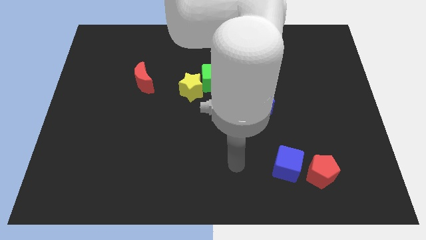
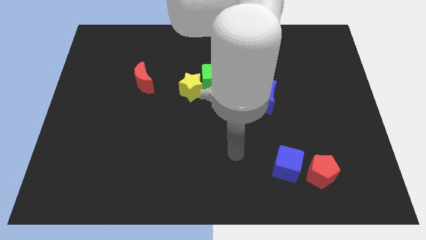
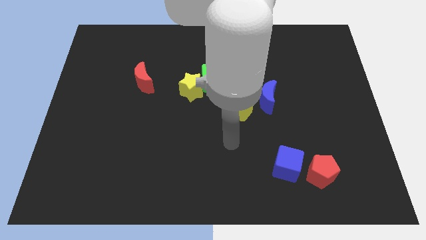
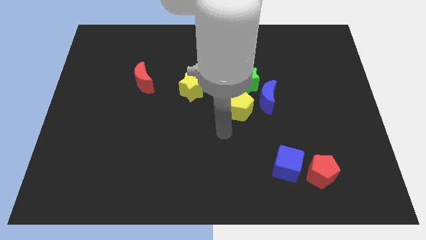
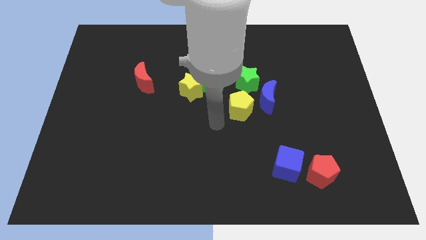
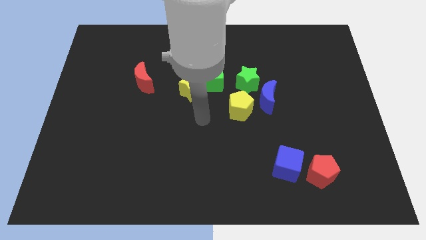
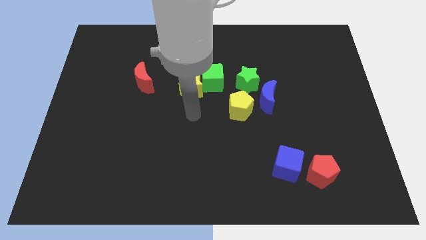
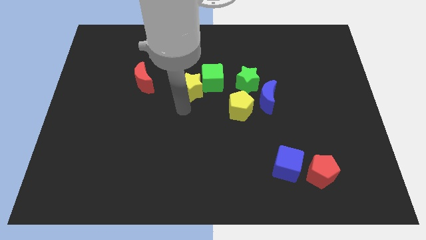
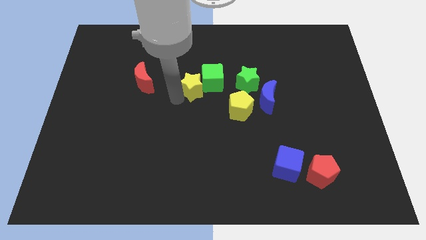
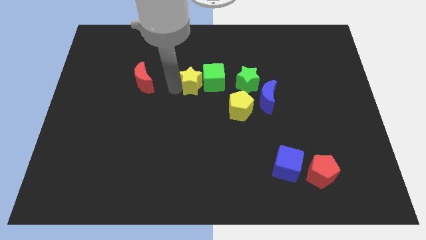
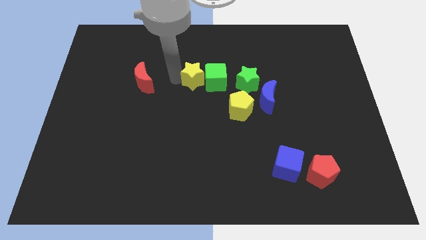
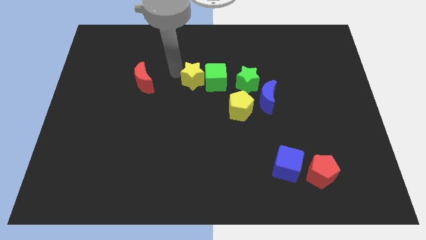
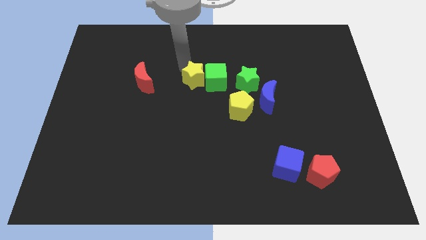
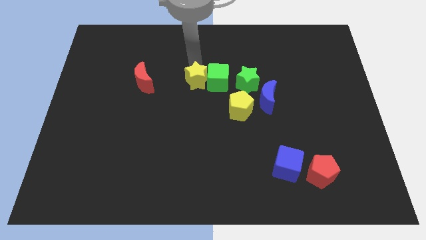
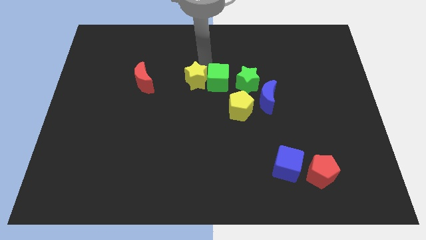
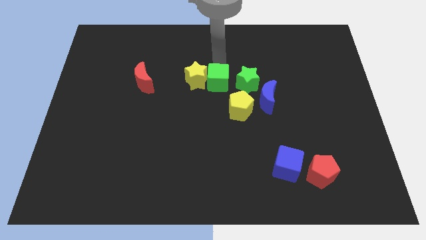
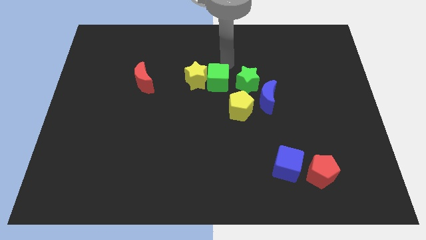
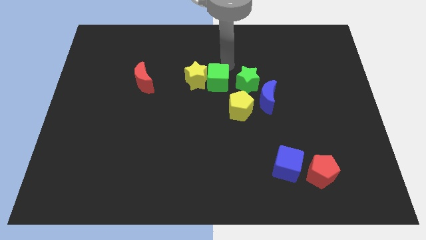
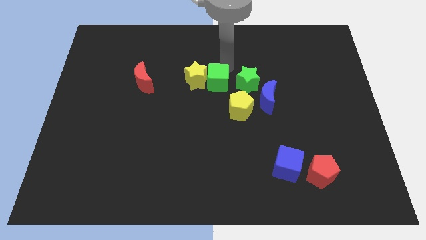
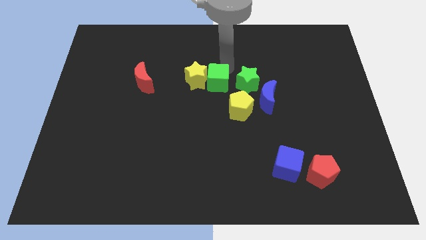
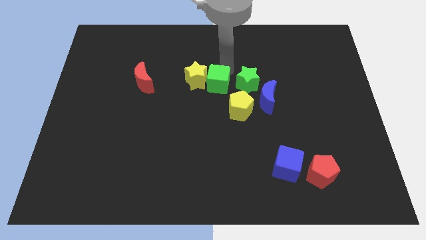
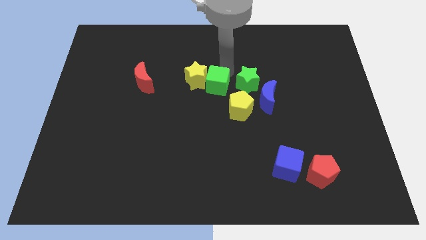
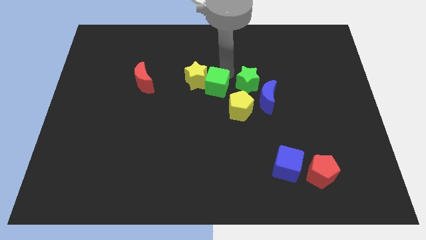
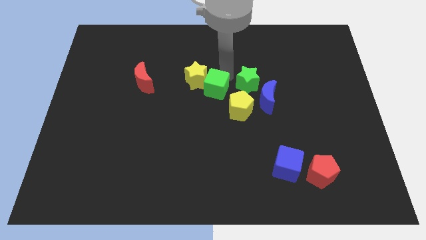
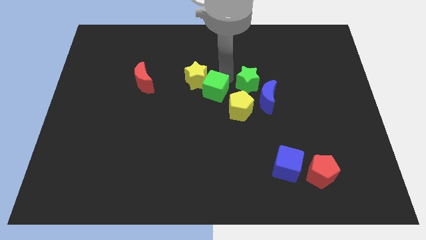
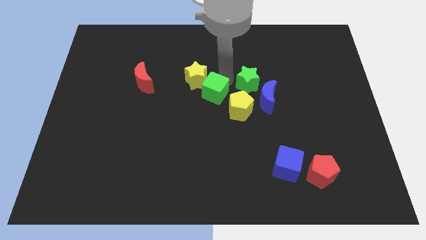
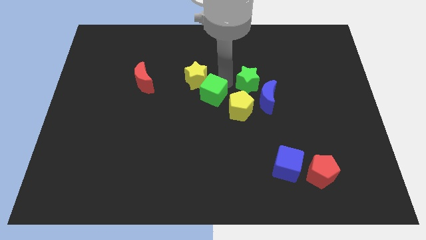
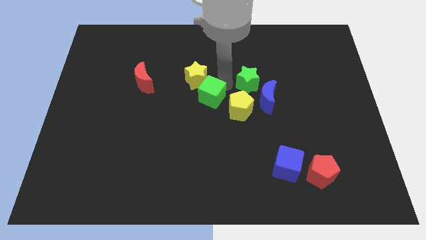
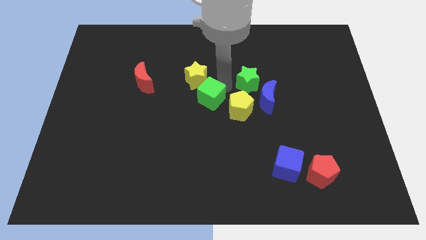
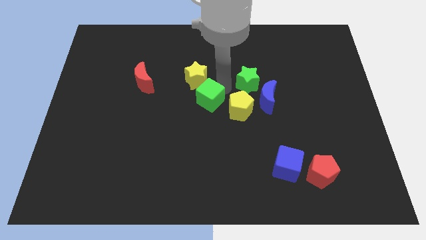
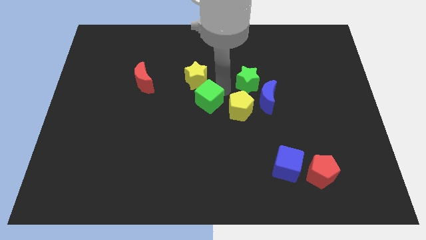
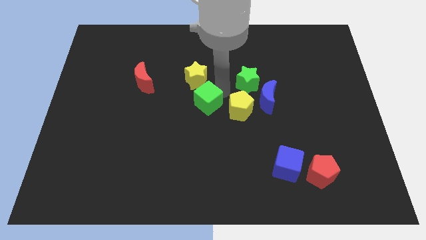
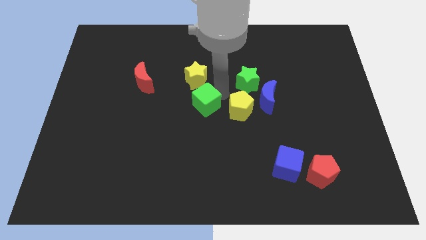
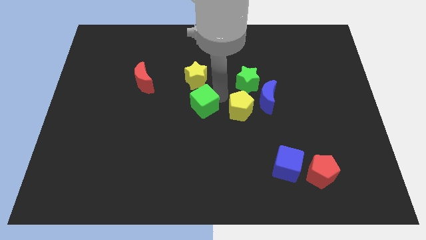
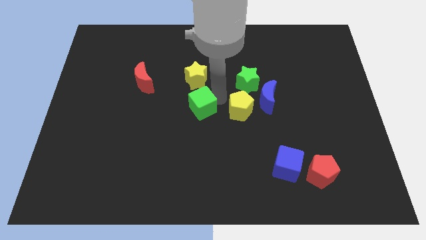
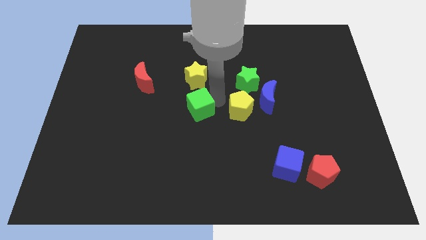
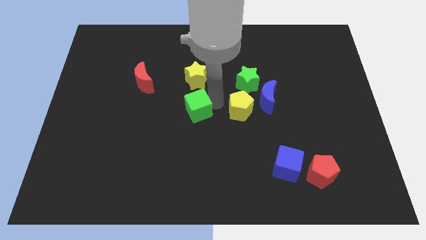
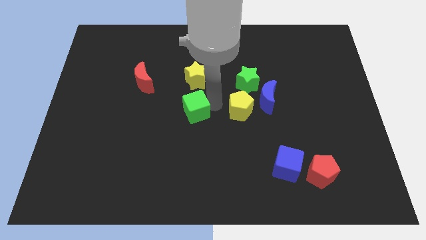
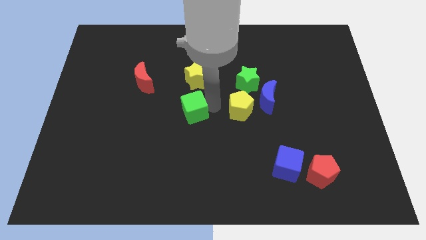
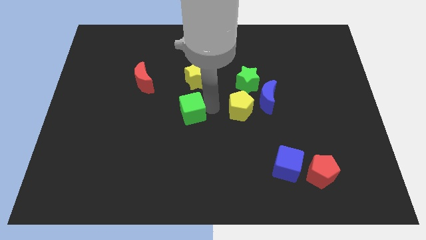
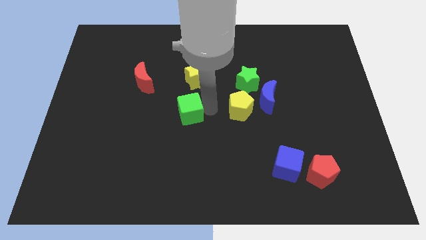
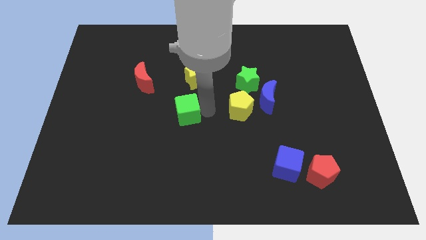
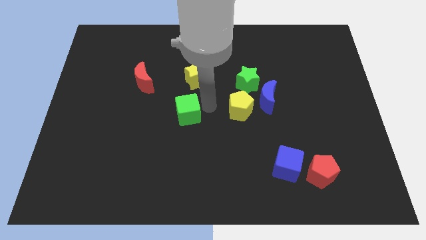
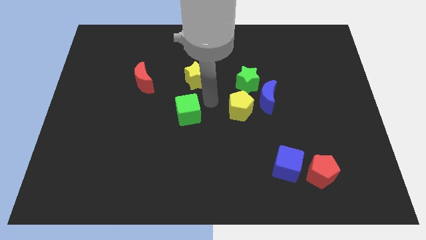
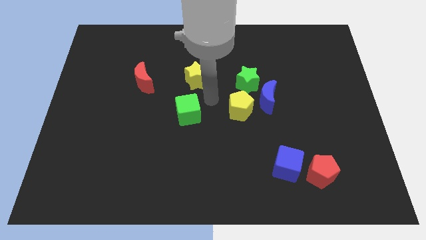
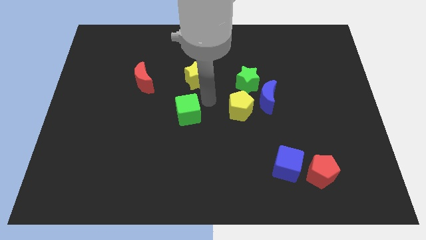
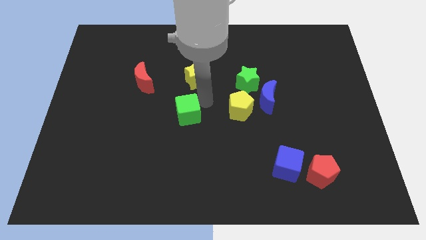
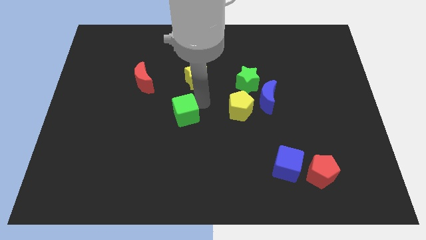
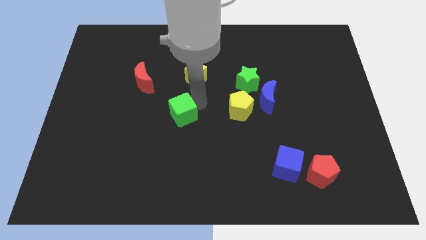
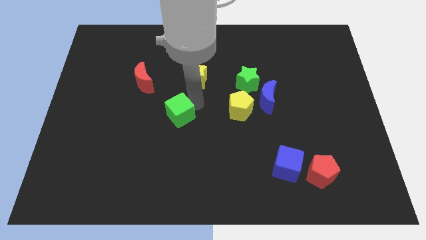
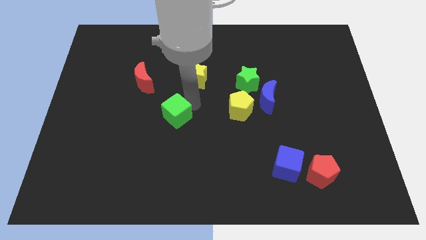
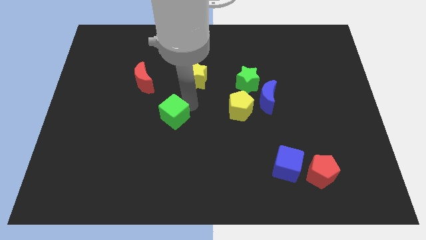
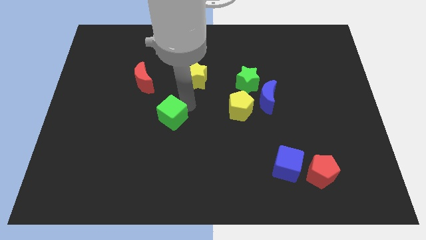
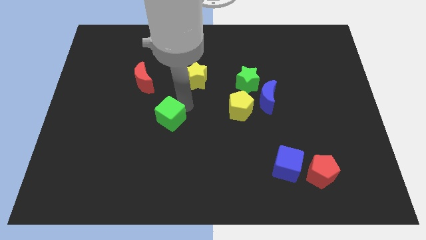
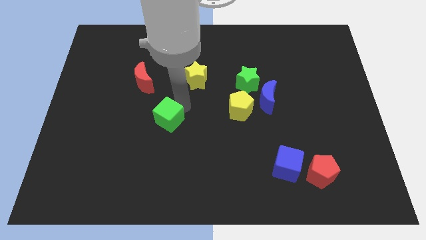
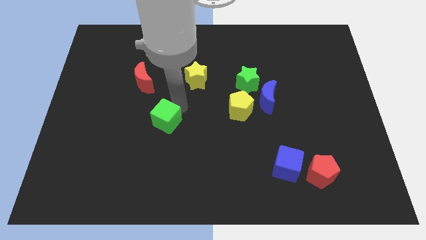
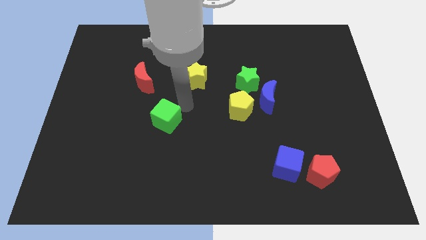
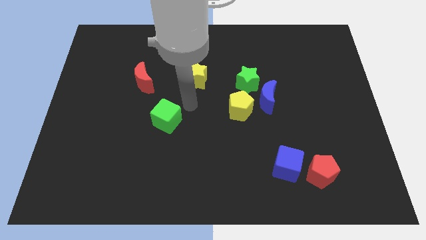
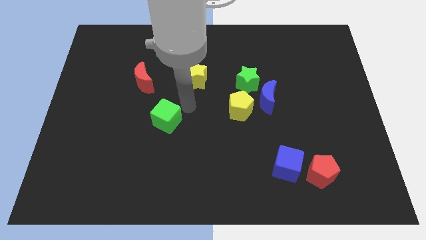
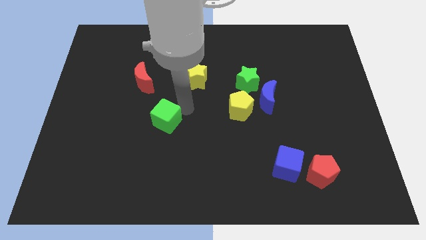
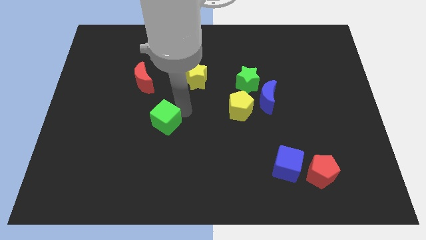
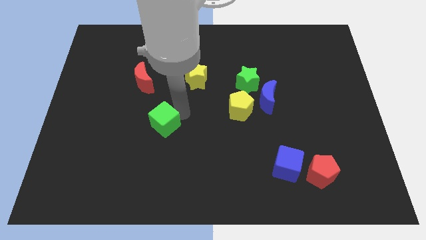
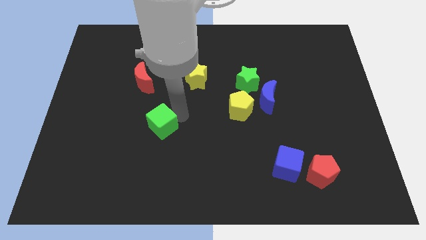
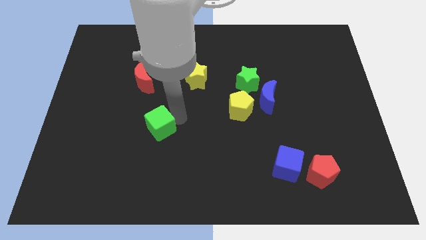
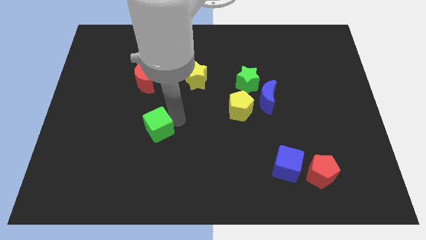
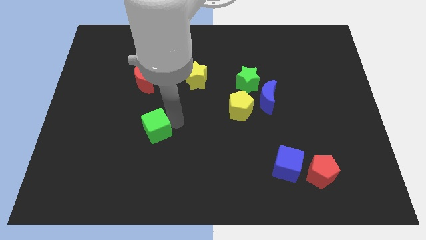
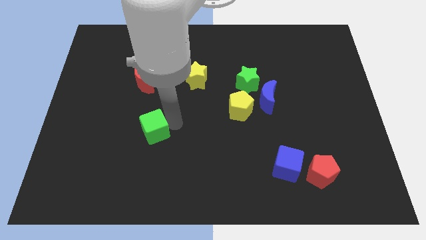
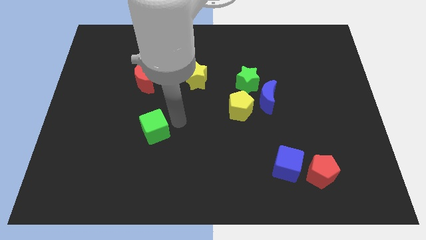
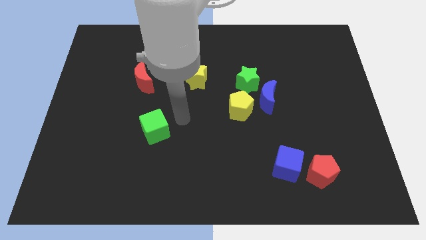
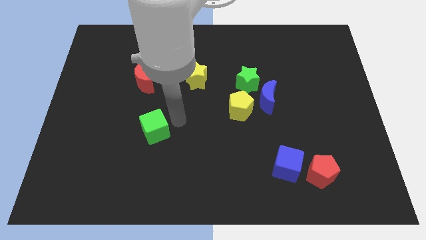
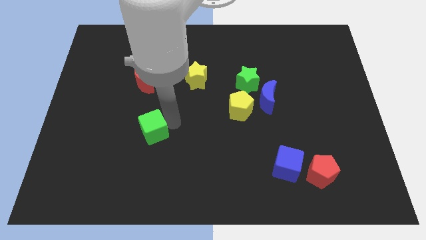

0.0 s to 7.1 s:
move the green cube diagonally down and to the left

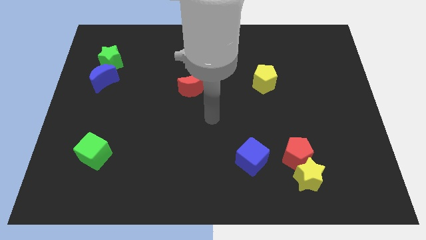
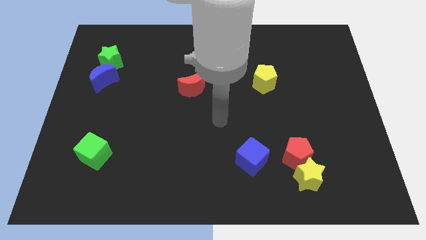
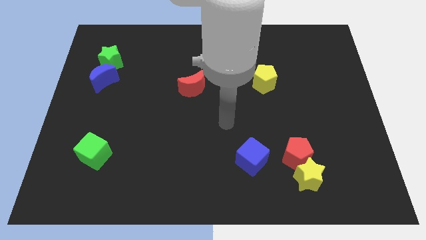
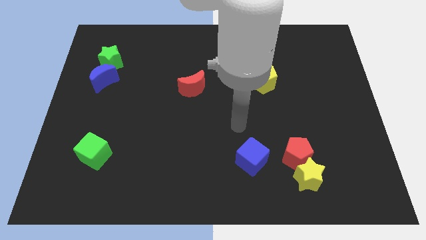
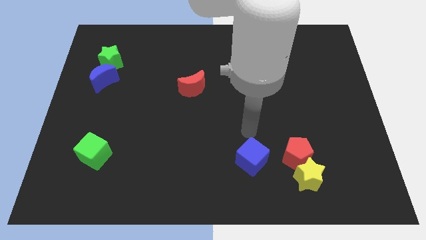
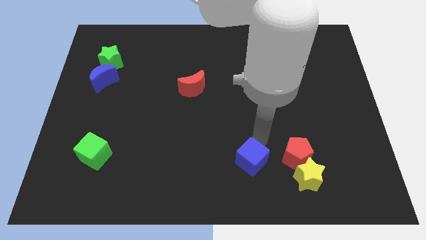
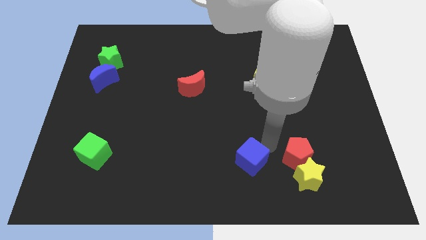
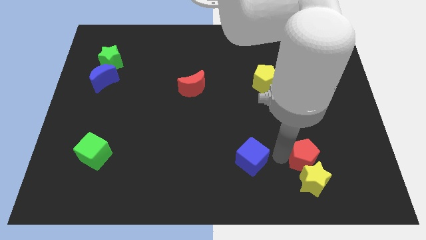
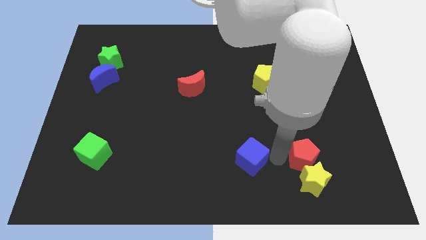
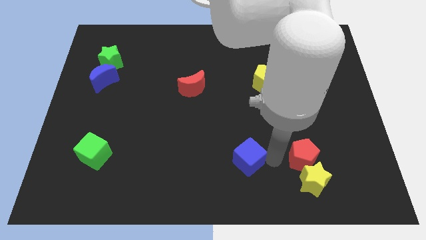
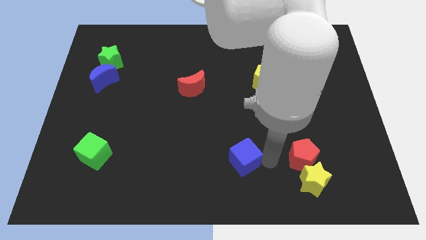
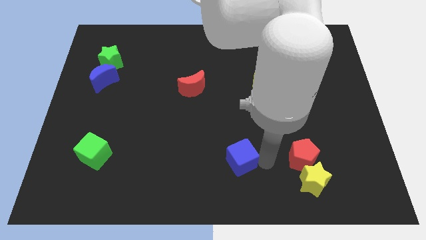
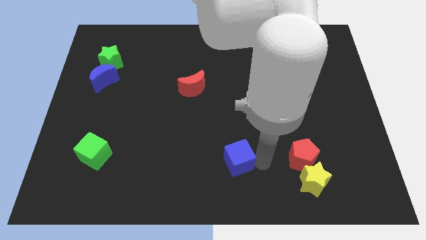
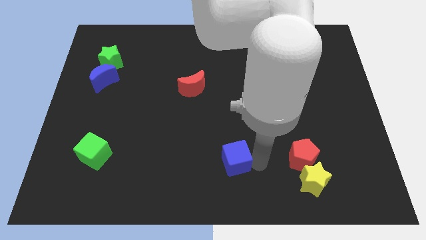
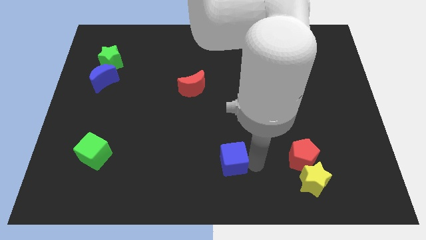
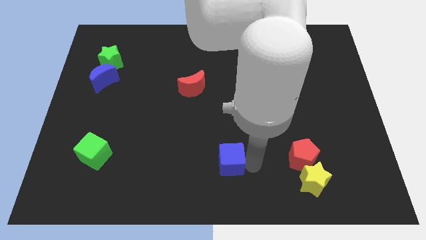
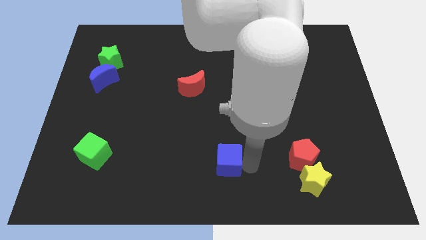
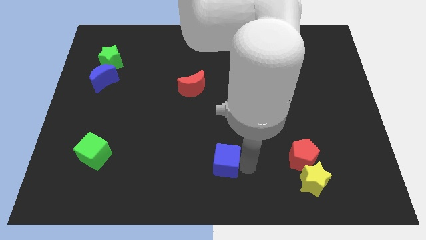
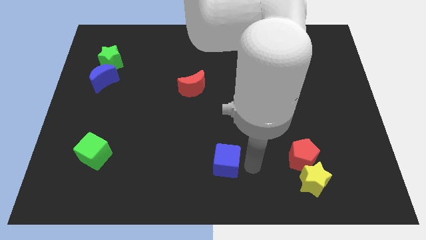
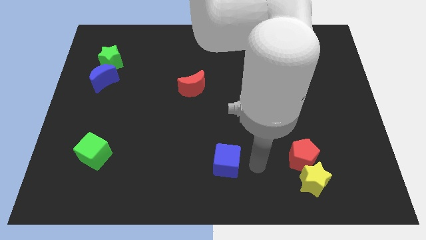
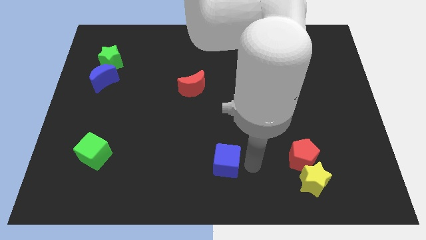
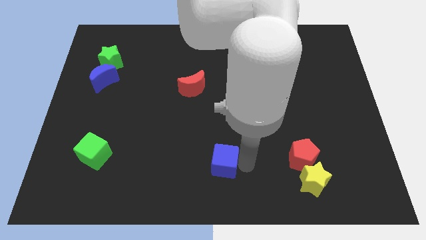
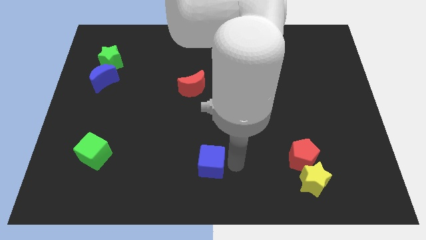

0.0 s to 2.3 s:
slightly move the blue cube left
